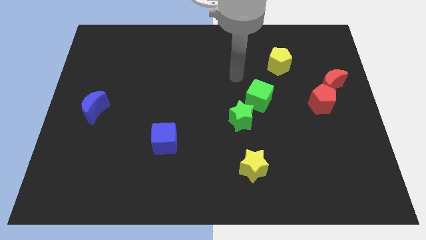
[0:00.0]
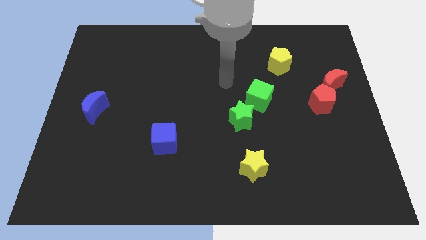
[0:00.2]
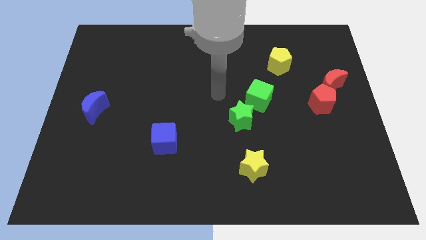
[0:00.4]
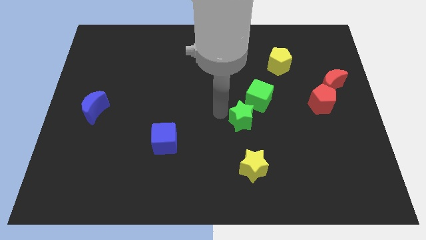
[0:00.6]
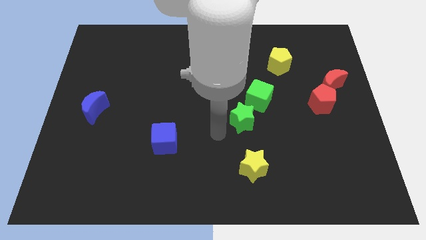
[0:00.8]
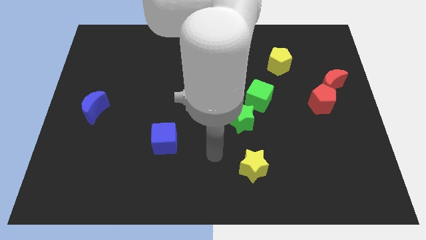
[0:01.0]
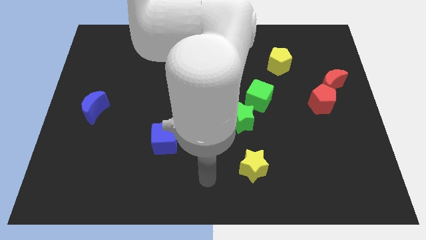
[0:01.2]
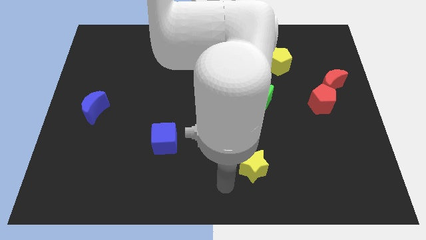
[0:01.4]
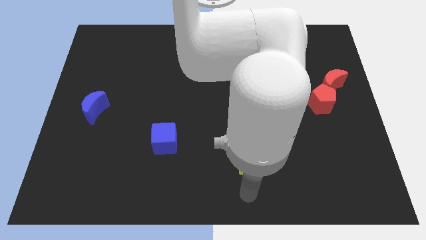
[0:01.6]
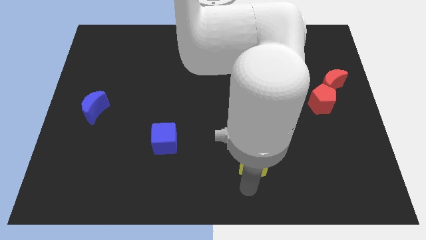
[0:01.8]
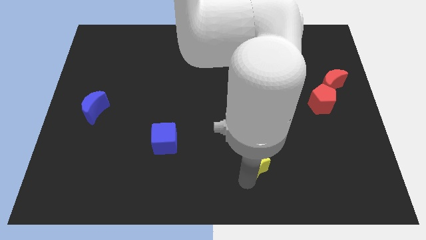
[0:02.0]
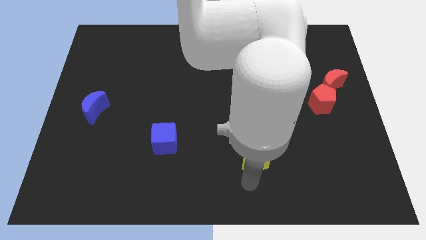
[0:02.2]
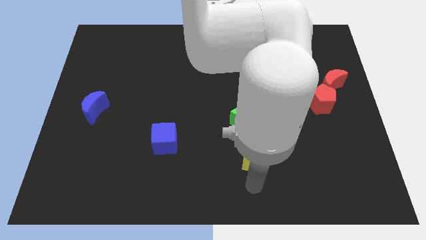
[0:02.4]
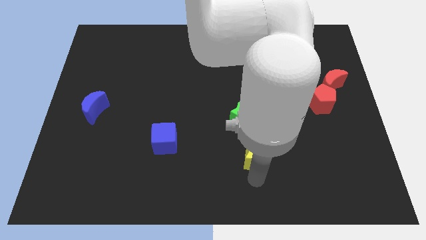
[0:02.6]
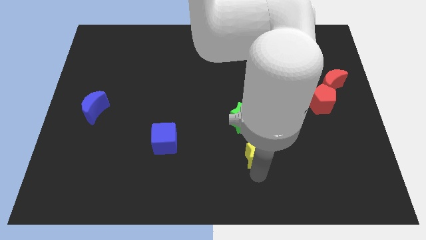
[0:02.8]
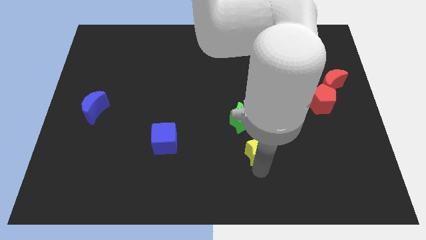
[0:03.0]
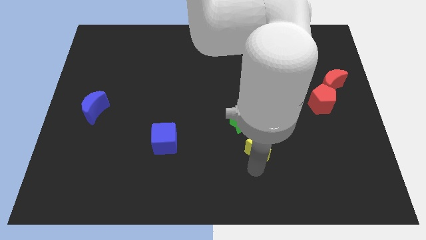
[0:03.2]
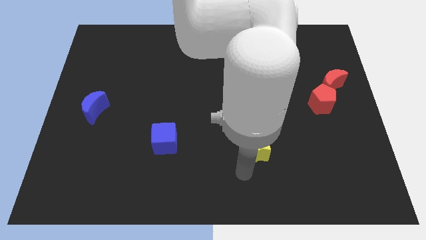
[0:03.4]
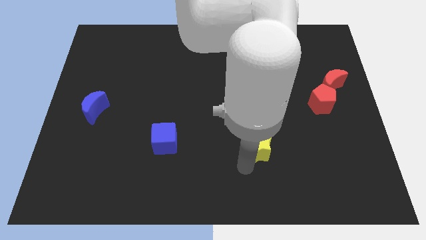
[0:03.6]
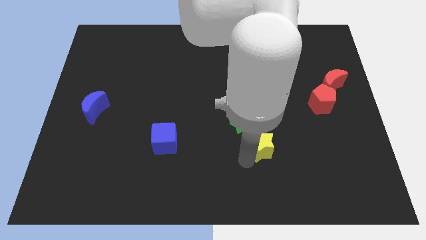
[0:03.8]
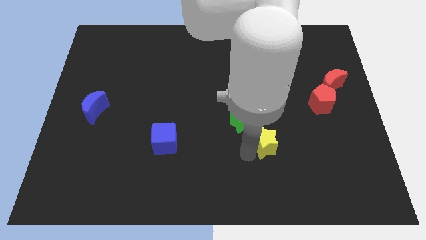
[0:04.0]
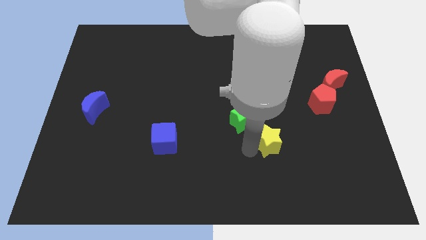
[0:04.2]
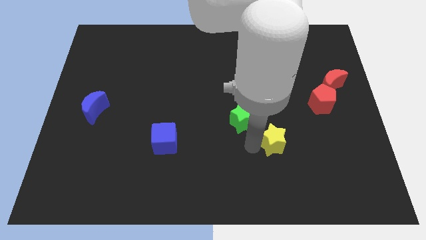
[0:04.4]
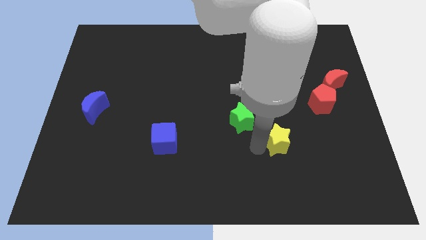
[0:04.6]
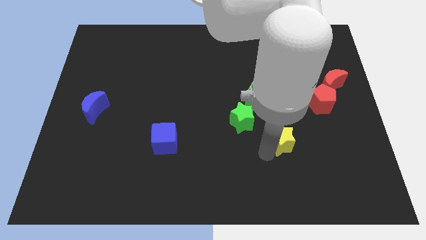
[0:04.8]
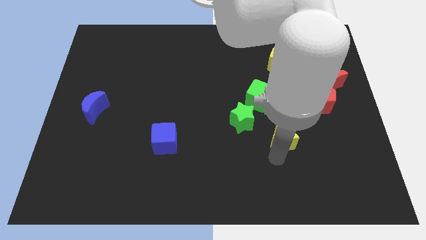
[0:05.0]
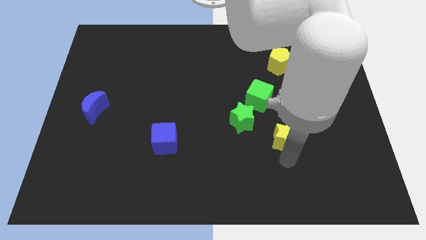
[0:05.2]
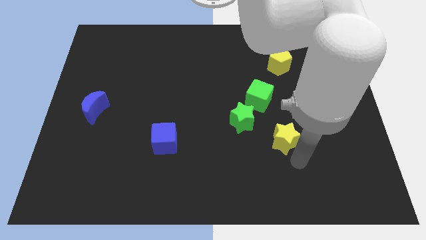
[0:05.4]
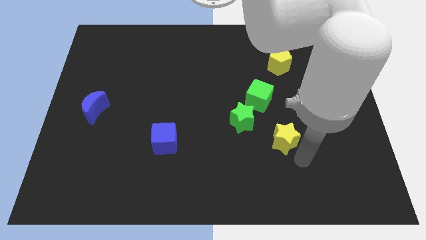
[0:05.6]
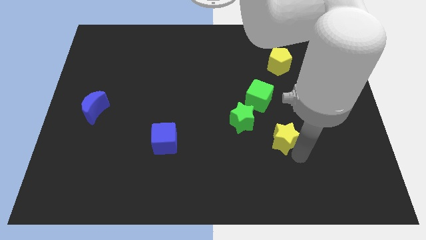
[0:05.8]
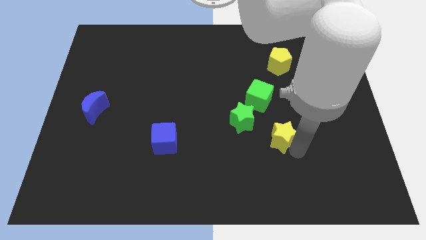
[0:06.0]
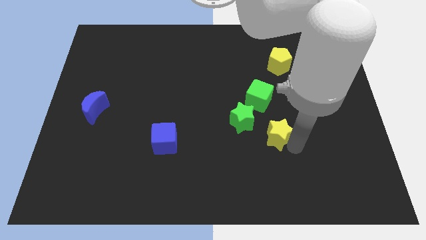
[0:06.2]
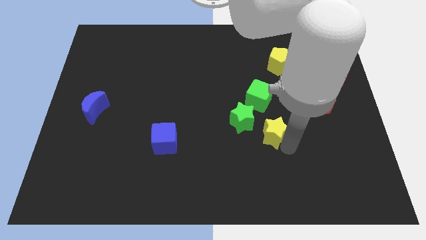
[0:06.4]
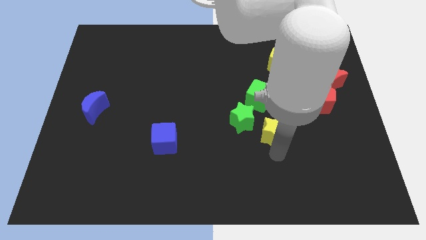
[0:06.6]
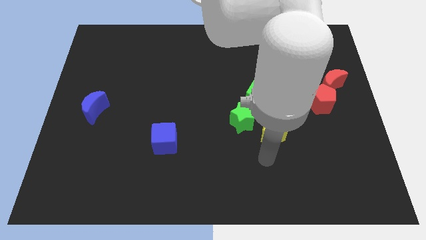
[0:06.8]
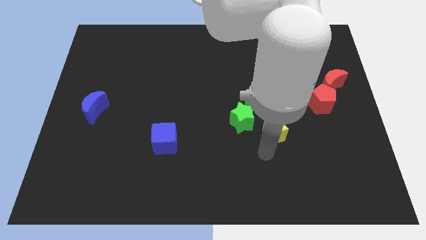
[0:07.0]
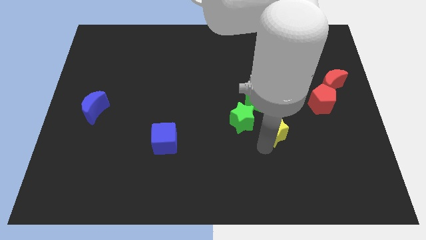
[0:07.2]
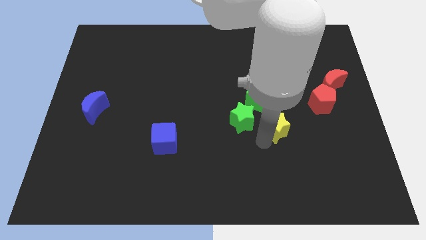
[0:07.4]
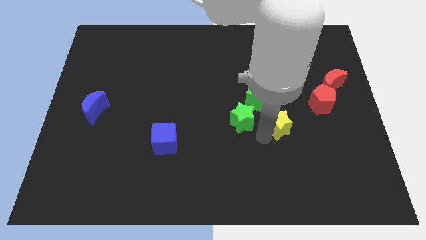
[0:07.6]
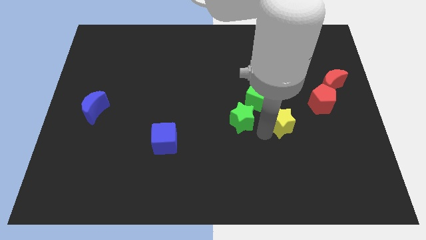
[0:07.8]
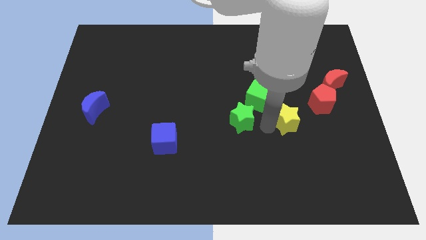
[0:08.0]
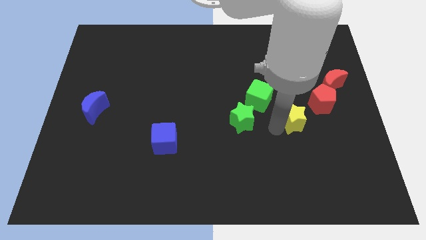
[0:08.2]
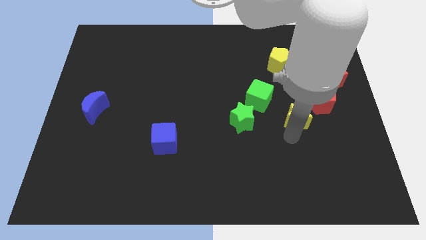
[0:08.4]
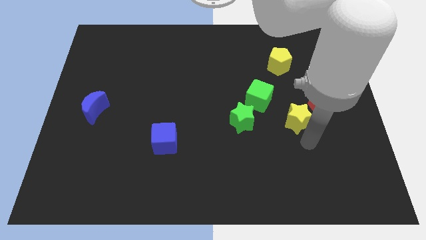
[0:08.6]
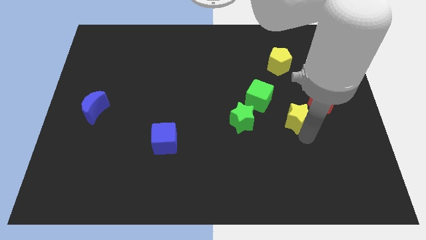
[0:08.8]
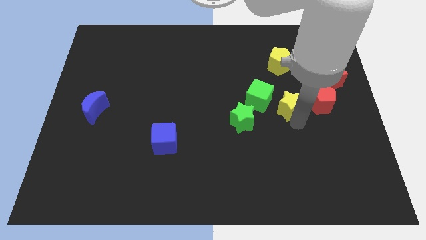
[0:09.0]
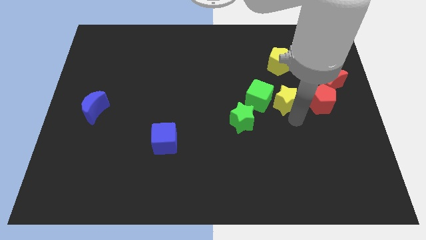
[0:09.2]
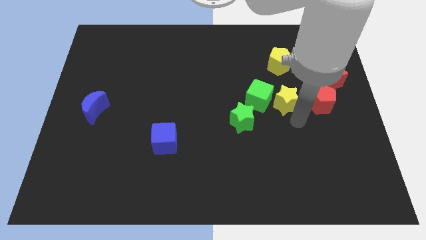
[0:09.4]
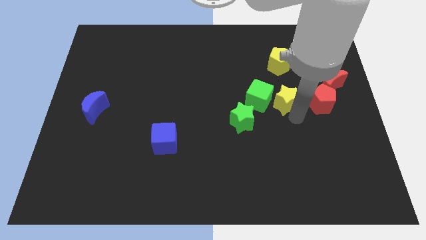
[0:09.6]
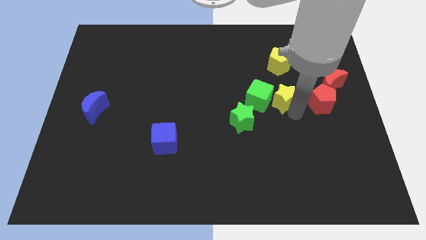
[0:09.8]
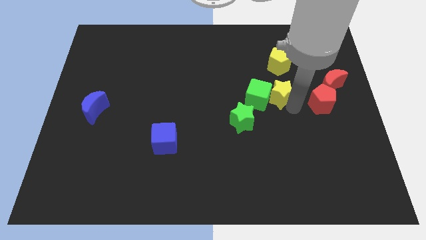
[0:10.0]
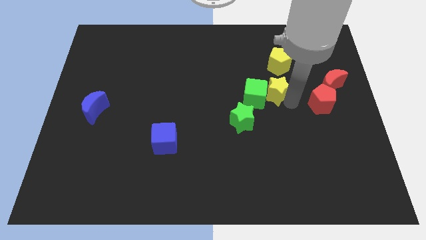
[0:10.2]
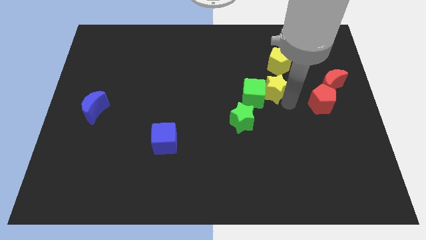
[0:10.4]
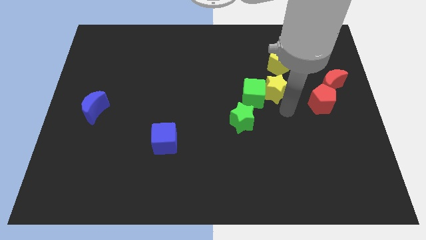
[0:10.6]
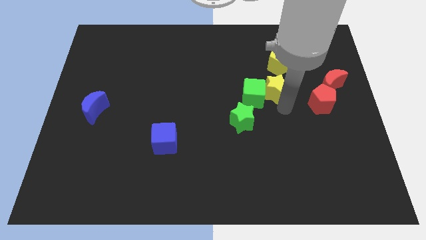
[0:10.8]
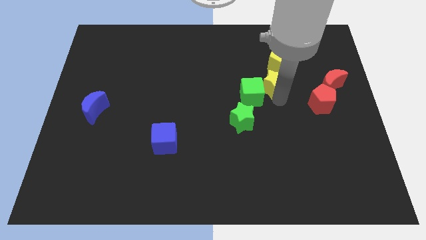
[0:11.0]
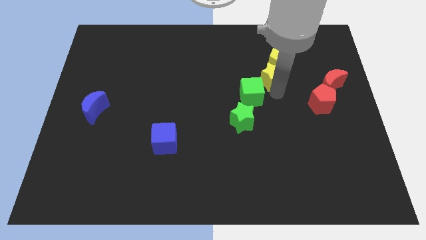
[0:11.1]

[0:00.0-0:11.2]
slide the yellow star above the green cube

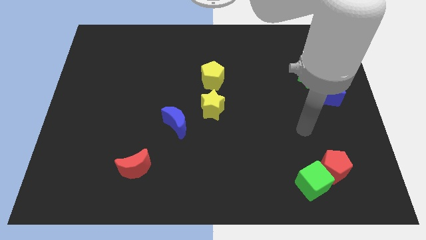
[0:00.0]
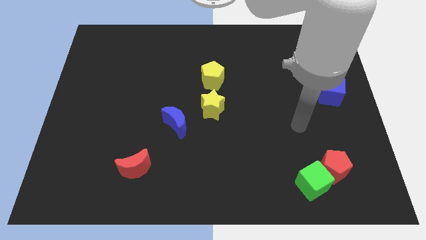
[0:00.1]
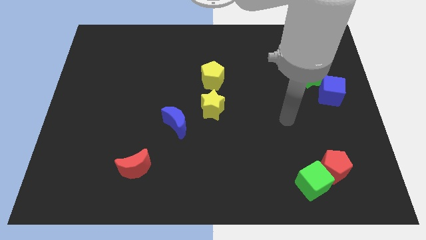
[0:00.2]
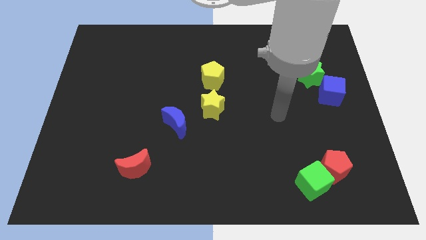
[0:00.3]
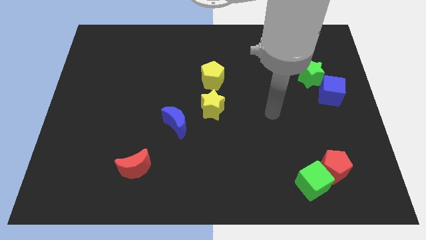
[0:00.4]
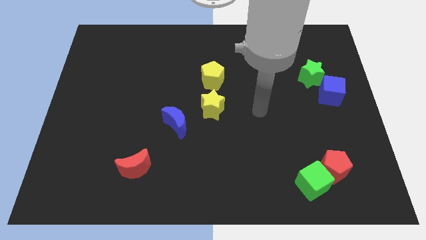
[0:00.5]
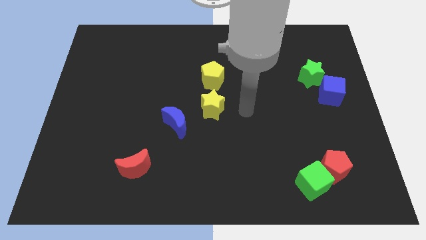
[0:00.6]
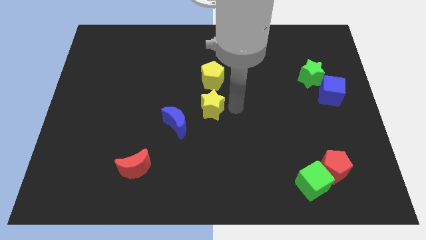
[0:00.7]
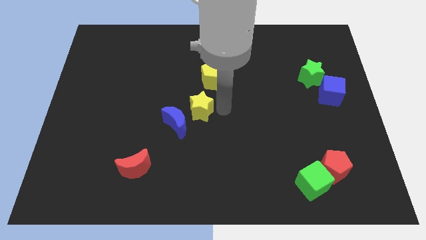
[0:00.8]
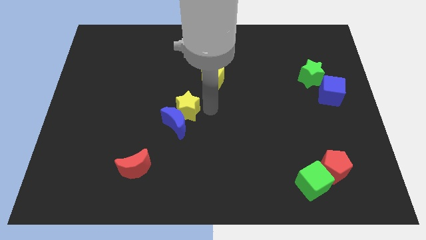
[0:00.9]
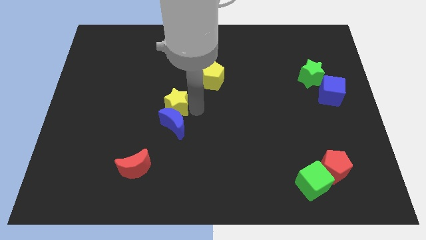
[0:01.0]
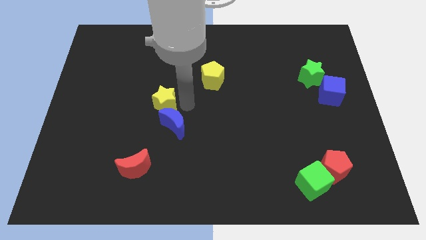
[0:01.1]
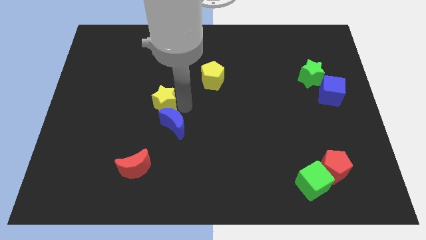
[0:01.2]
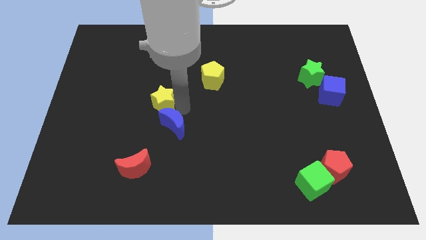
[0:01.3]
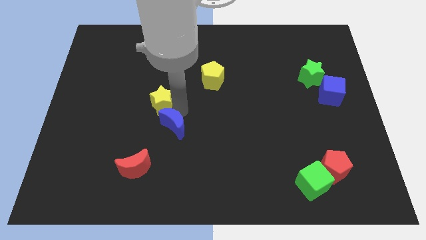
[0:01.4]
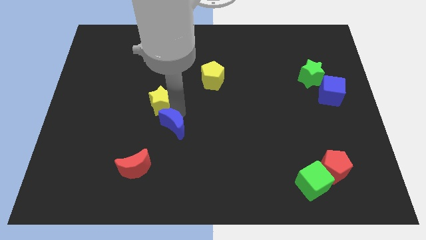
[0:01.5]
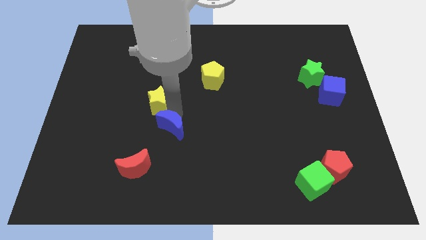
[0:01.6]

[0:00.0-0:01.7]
move the blue moon diagonally up and to the right of the red moon

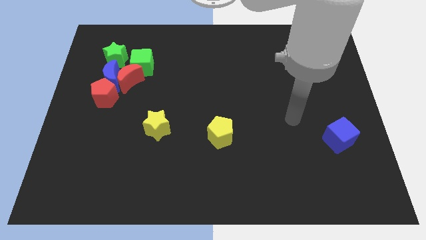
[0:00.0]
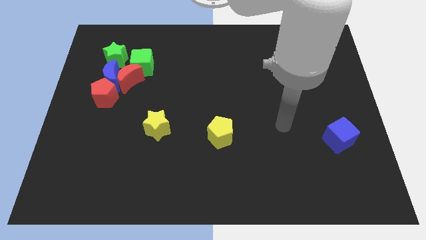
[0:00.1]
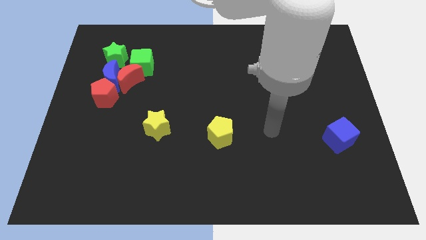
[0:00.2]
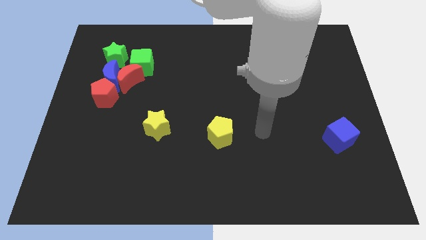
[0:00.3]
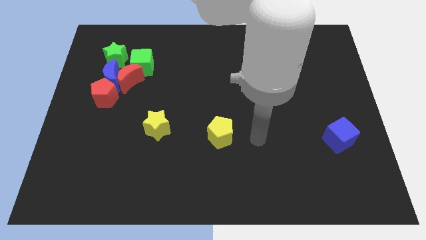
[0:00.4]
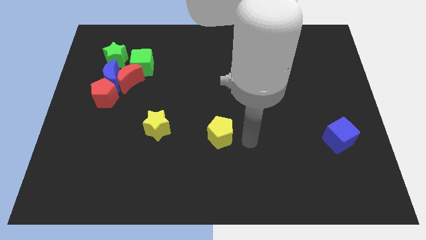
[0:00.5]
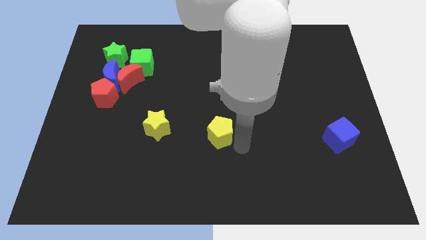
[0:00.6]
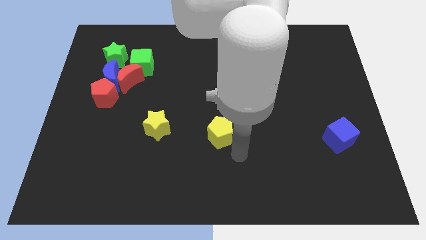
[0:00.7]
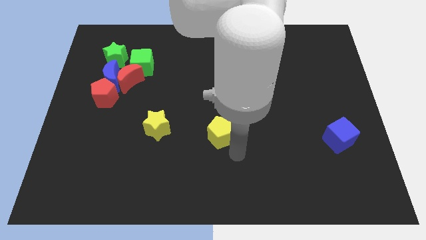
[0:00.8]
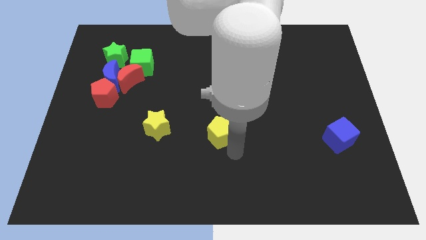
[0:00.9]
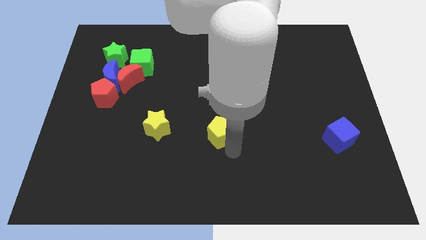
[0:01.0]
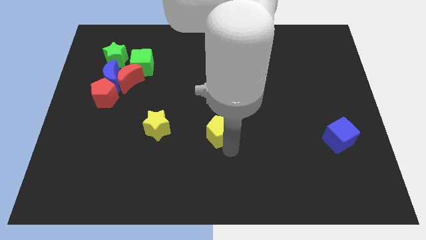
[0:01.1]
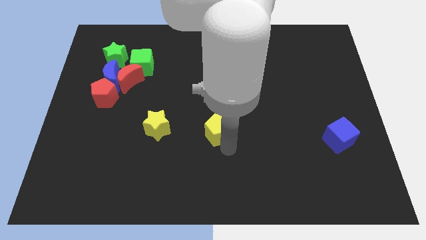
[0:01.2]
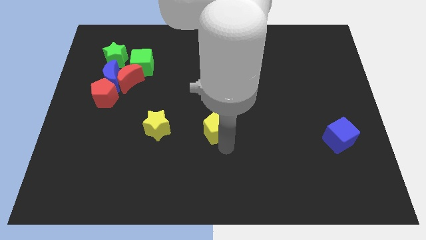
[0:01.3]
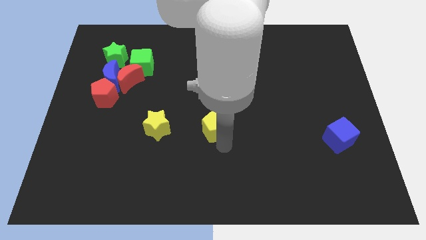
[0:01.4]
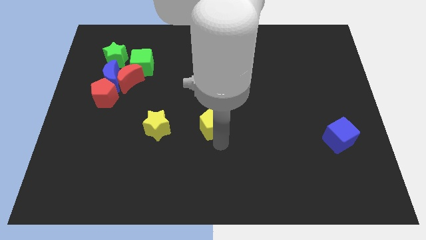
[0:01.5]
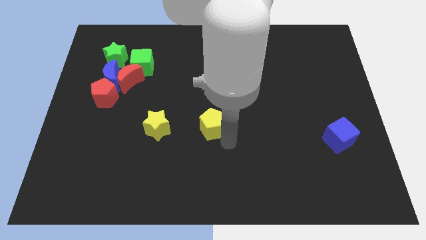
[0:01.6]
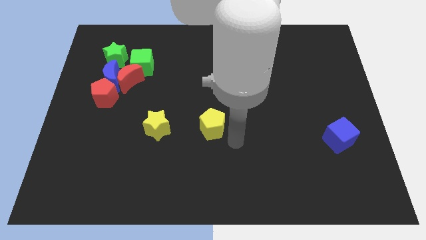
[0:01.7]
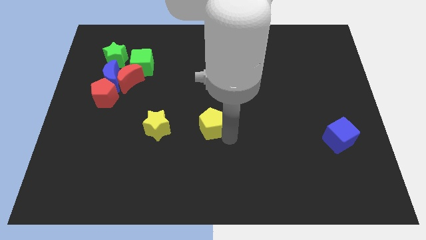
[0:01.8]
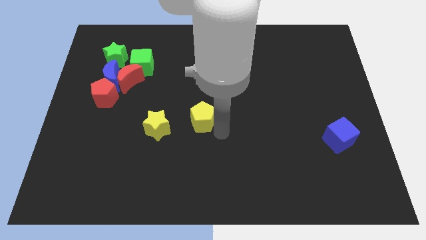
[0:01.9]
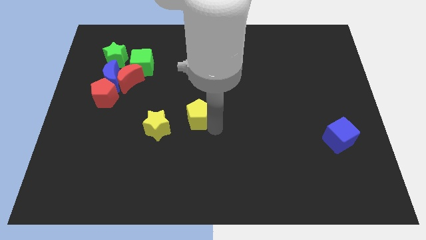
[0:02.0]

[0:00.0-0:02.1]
push the yellow pentagon diagonally up and to the right of the yellow star
